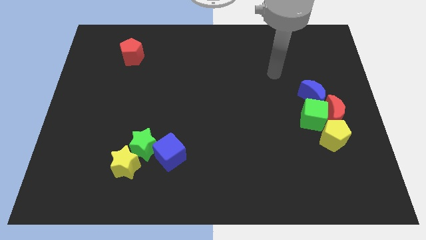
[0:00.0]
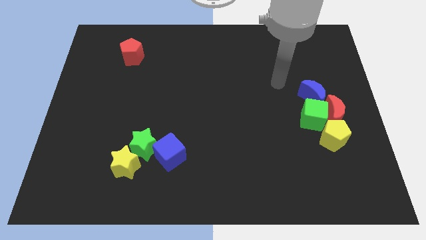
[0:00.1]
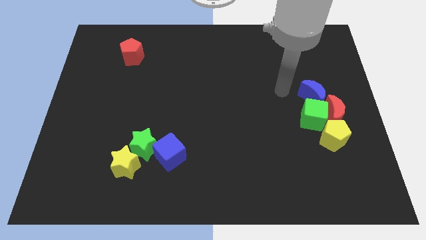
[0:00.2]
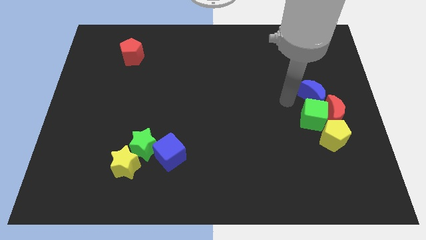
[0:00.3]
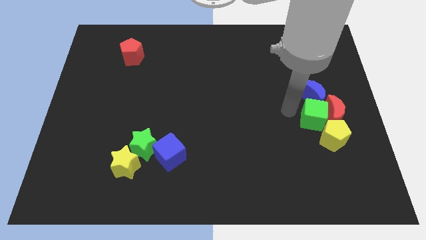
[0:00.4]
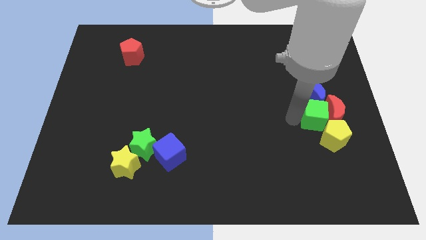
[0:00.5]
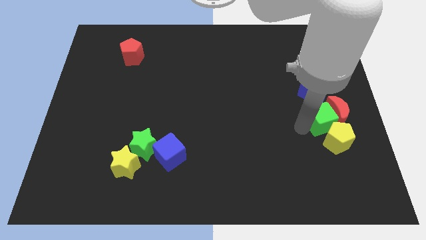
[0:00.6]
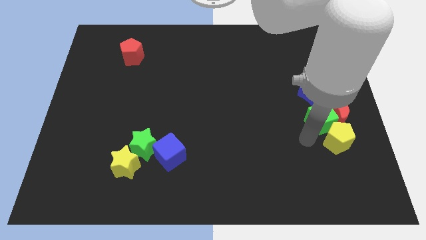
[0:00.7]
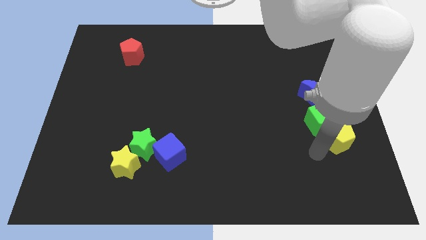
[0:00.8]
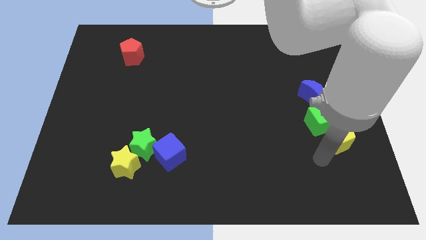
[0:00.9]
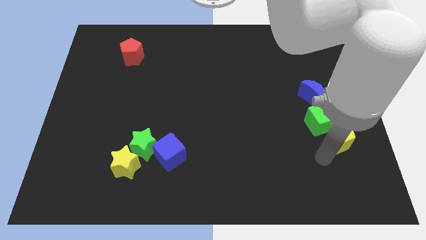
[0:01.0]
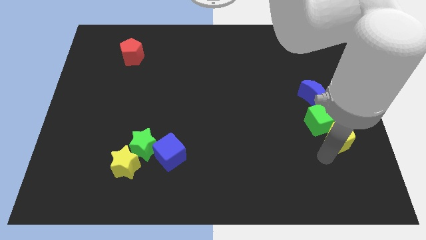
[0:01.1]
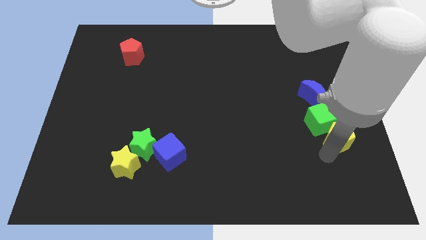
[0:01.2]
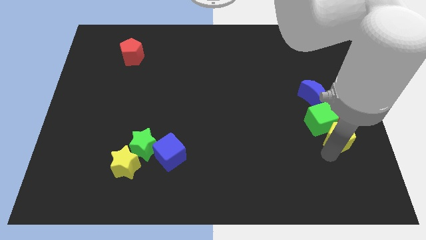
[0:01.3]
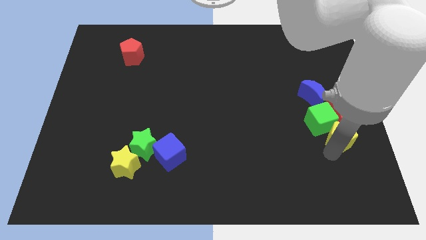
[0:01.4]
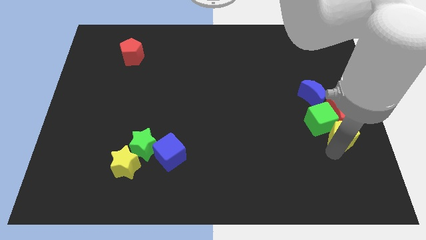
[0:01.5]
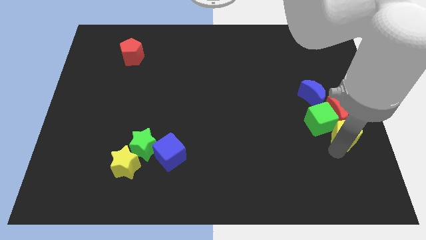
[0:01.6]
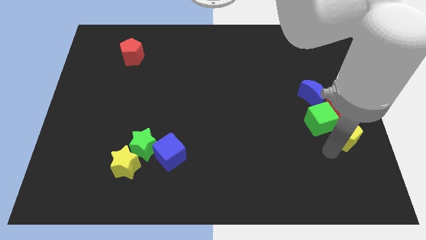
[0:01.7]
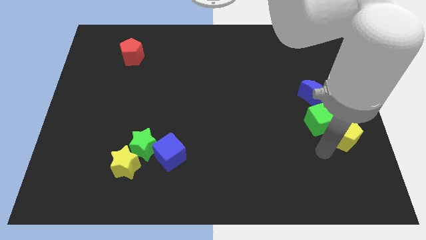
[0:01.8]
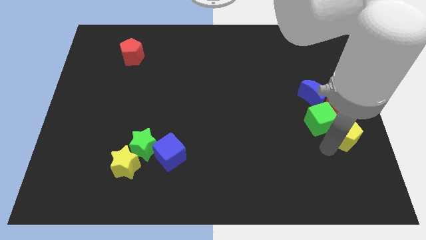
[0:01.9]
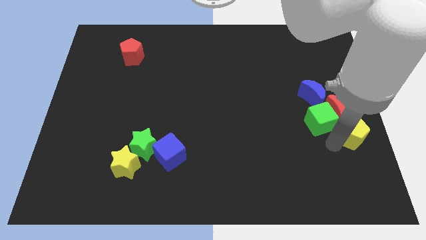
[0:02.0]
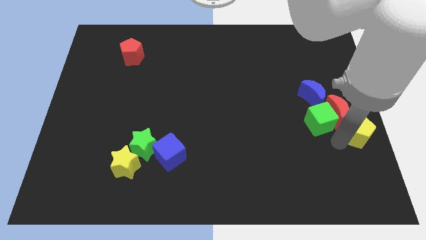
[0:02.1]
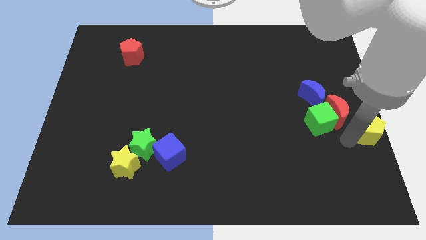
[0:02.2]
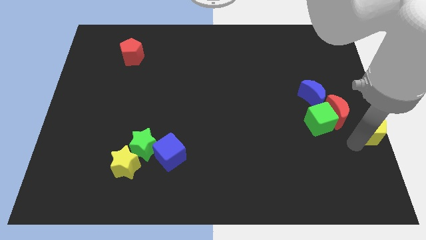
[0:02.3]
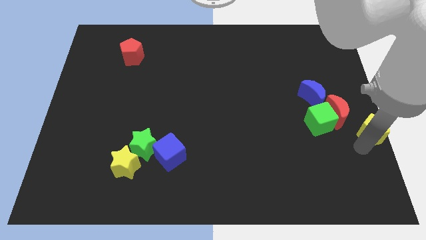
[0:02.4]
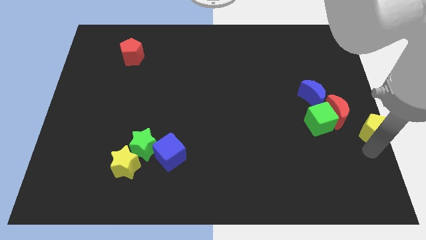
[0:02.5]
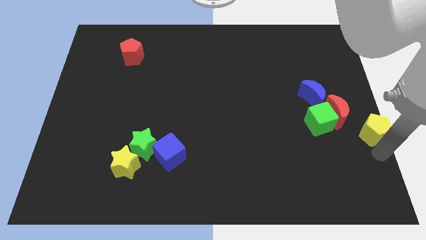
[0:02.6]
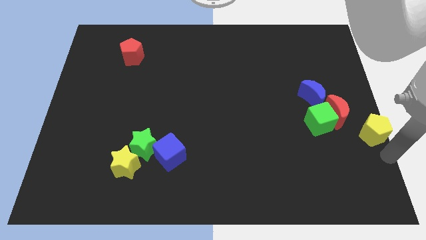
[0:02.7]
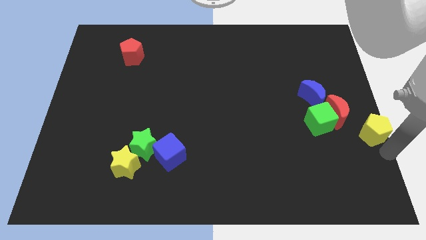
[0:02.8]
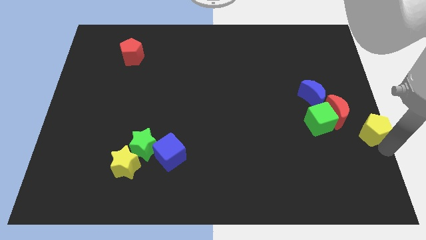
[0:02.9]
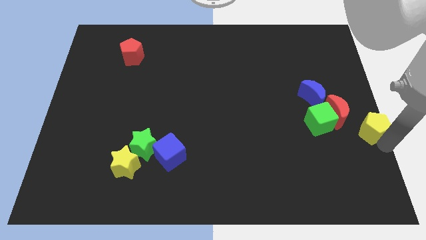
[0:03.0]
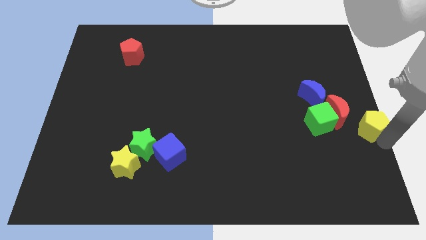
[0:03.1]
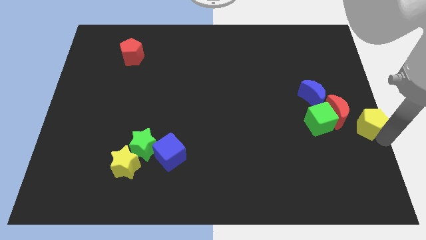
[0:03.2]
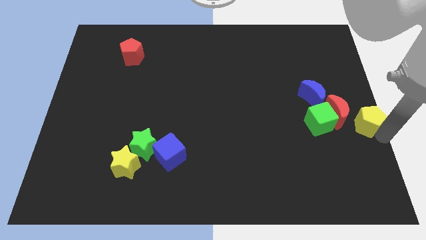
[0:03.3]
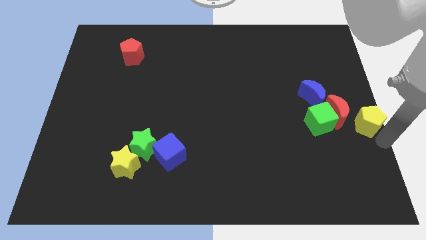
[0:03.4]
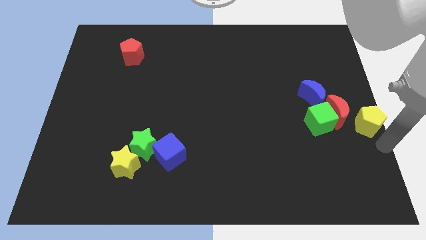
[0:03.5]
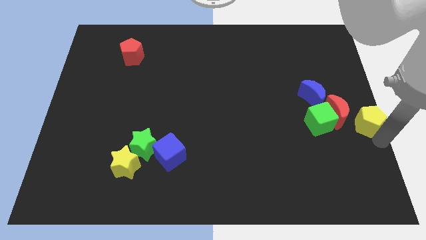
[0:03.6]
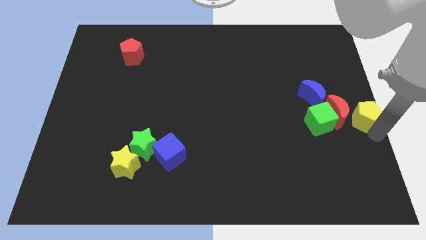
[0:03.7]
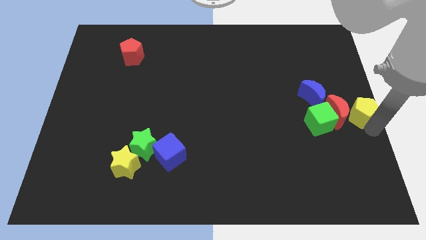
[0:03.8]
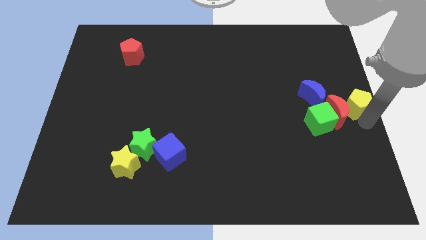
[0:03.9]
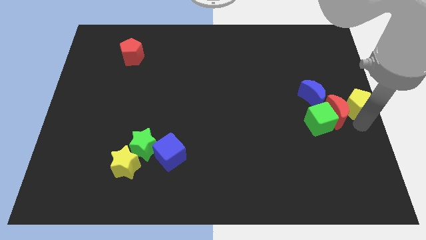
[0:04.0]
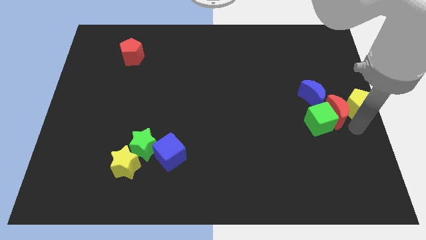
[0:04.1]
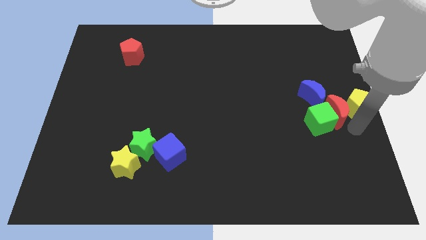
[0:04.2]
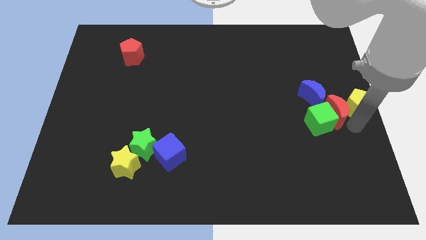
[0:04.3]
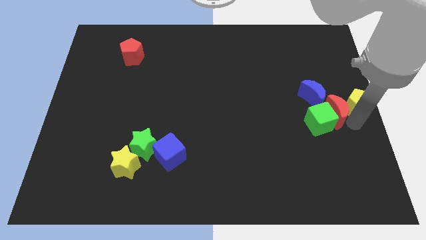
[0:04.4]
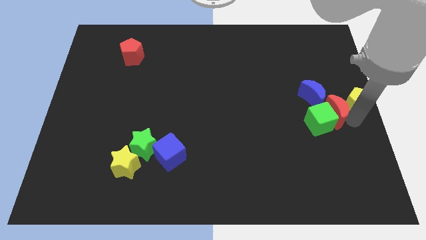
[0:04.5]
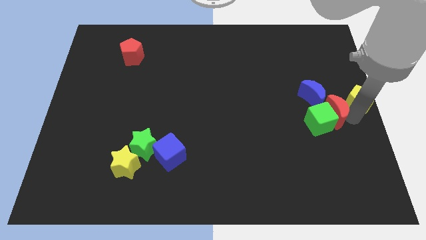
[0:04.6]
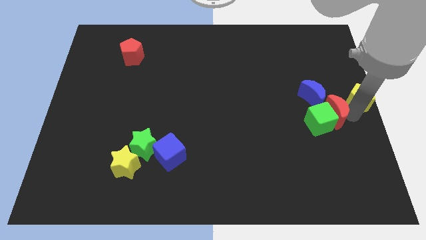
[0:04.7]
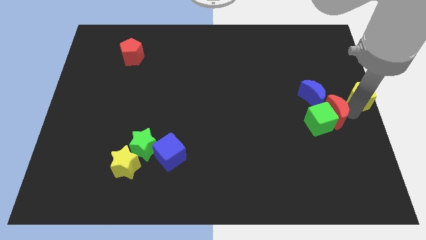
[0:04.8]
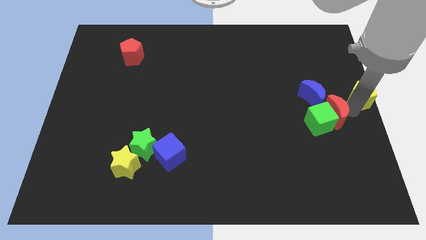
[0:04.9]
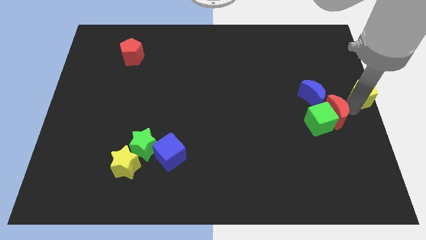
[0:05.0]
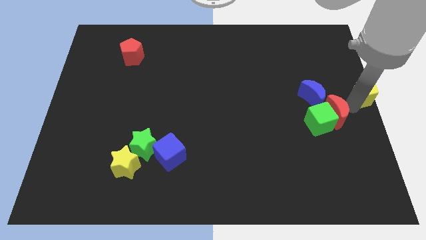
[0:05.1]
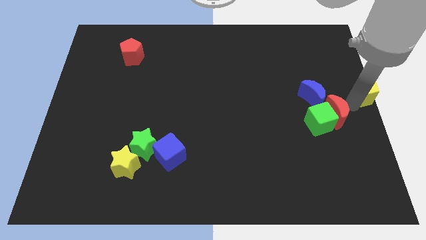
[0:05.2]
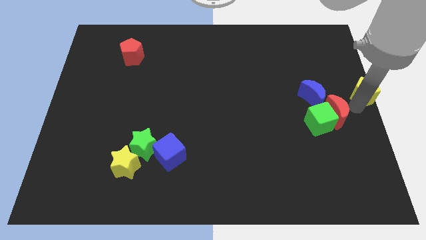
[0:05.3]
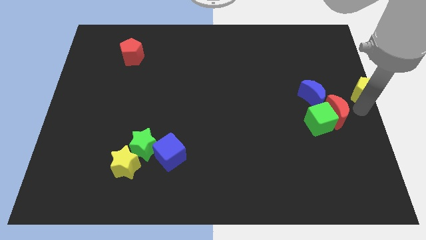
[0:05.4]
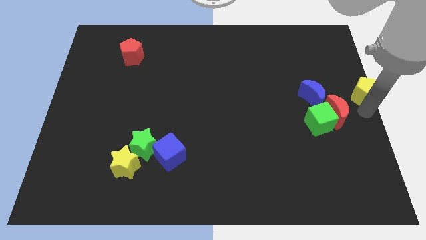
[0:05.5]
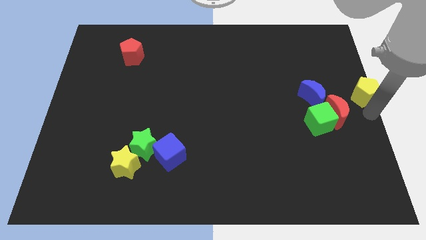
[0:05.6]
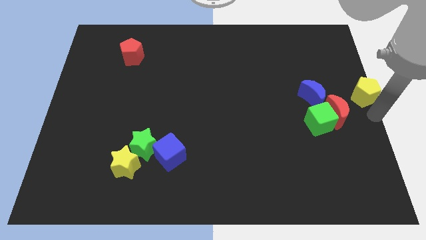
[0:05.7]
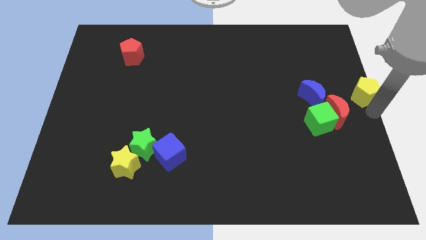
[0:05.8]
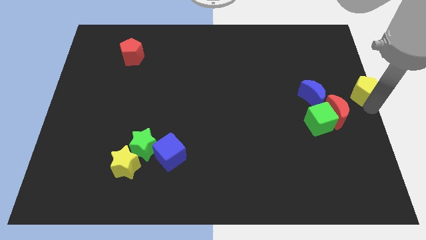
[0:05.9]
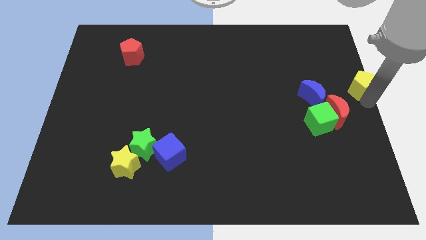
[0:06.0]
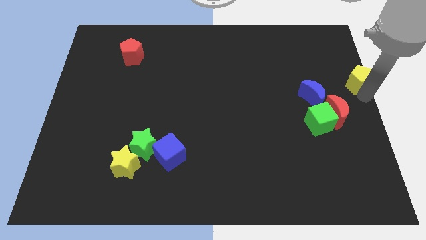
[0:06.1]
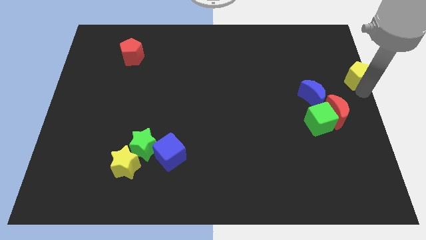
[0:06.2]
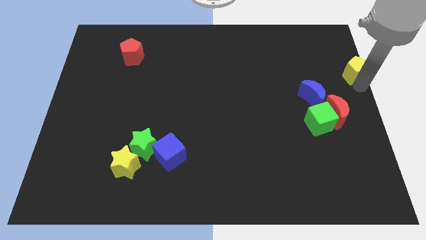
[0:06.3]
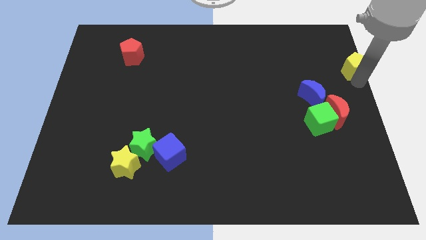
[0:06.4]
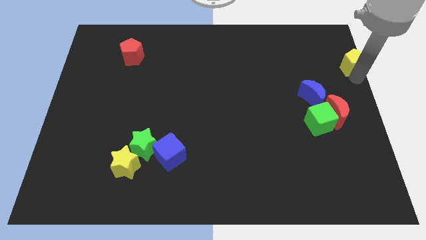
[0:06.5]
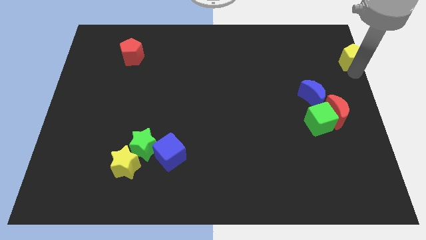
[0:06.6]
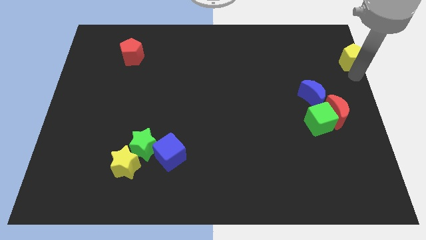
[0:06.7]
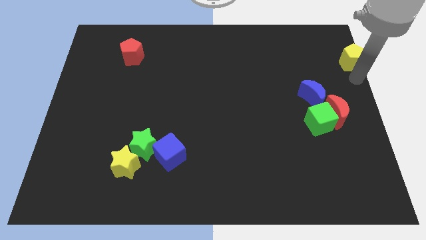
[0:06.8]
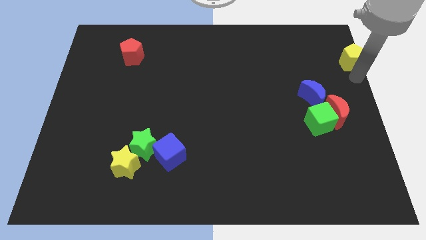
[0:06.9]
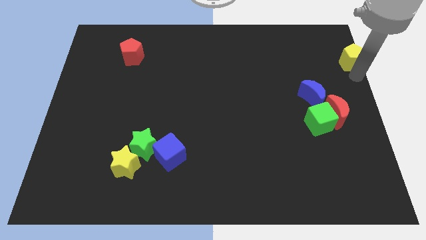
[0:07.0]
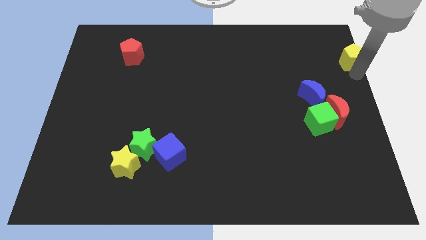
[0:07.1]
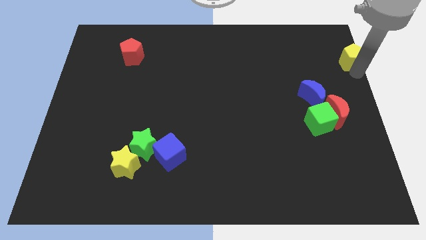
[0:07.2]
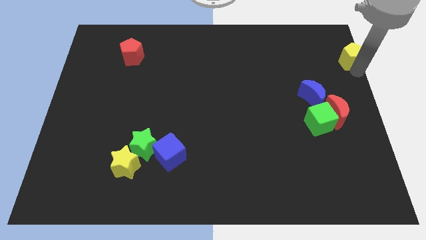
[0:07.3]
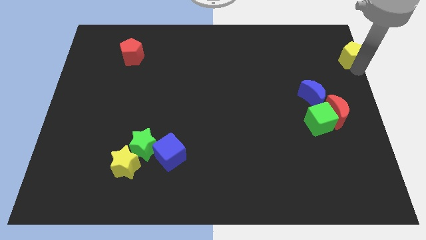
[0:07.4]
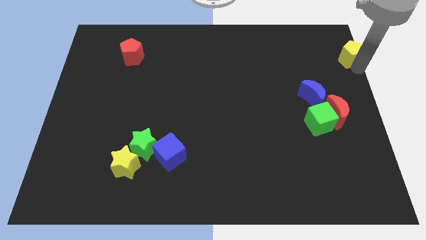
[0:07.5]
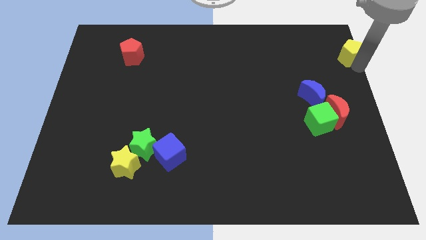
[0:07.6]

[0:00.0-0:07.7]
put the yellow pentagon to the top right
